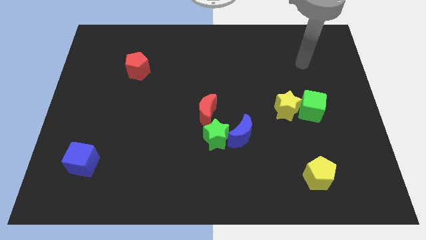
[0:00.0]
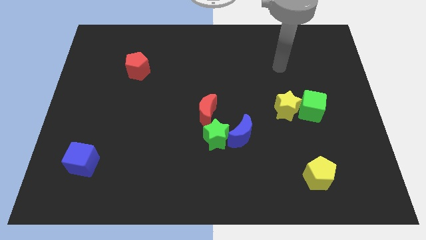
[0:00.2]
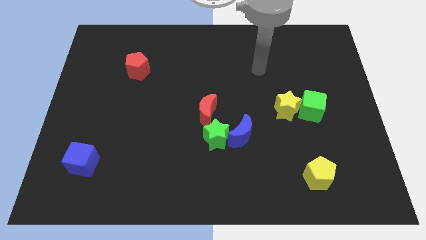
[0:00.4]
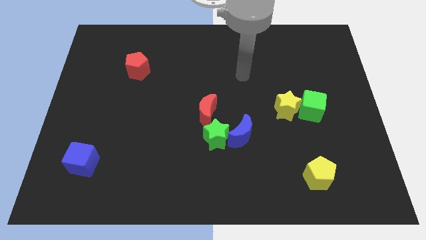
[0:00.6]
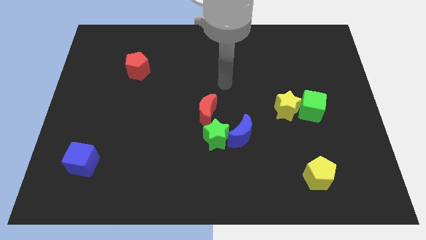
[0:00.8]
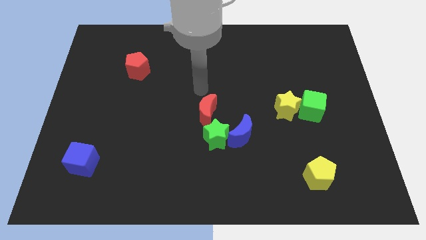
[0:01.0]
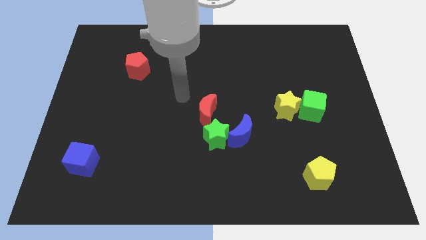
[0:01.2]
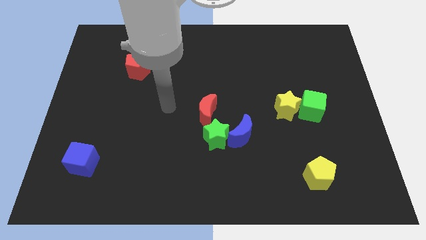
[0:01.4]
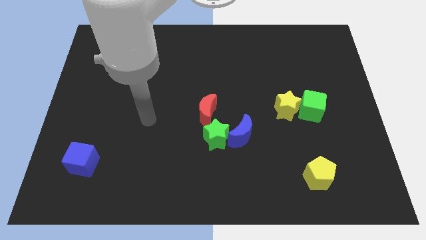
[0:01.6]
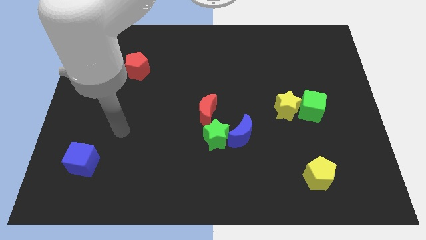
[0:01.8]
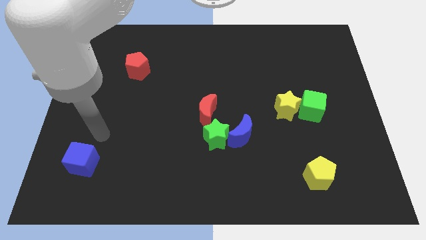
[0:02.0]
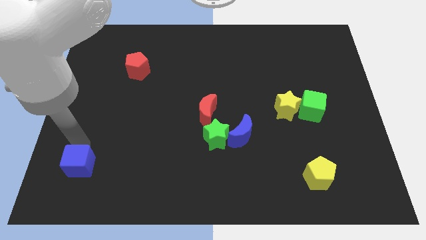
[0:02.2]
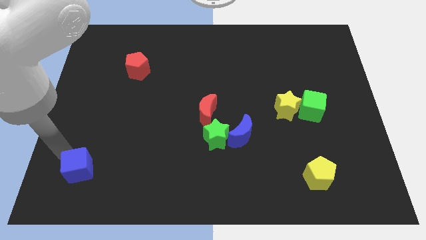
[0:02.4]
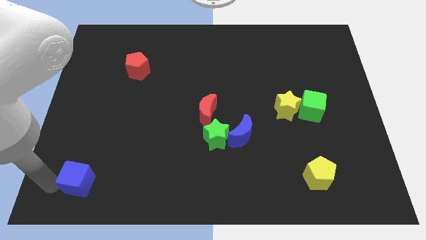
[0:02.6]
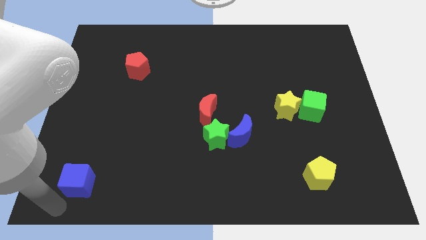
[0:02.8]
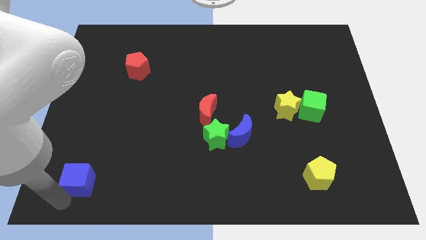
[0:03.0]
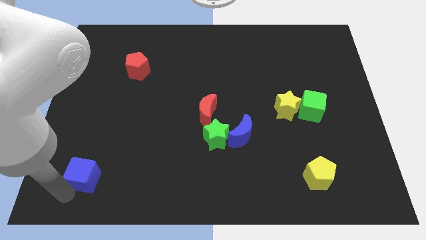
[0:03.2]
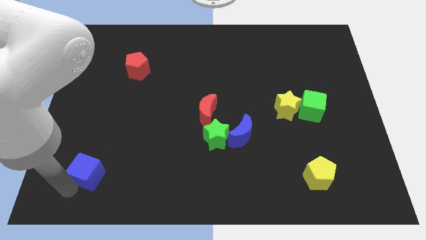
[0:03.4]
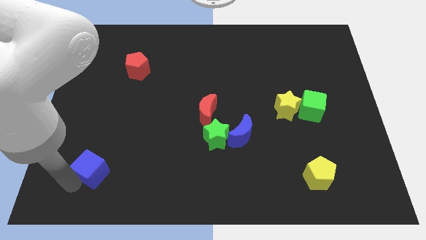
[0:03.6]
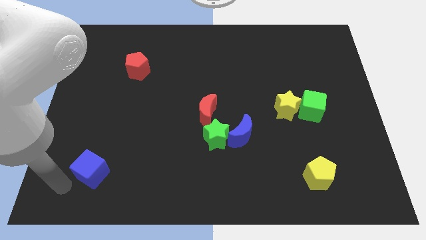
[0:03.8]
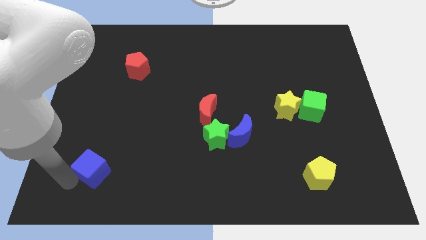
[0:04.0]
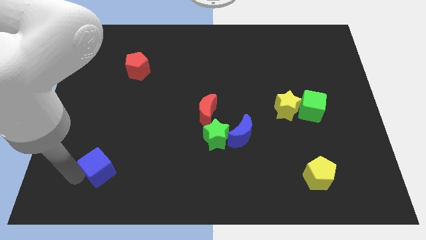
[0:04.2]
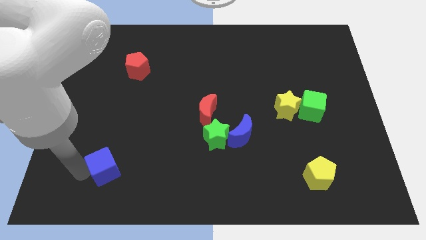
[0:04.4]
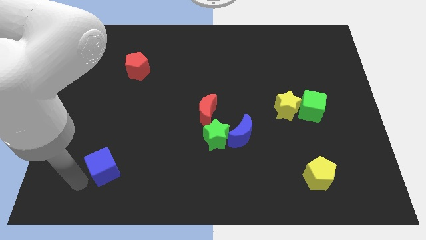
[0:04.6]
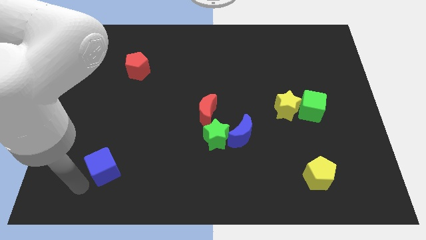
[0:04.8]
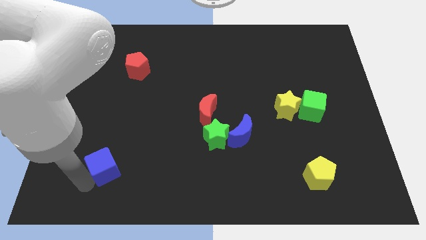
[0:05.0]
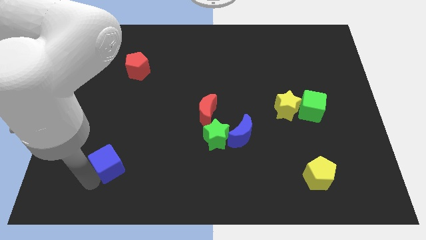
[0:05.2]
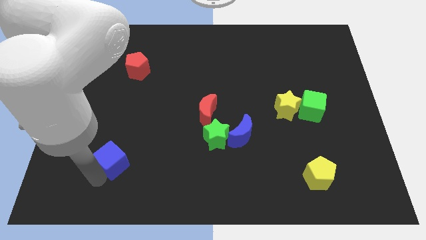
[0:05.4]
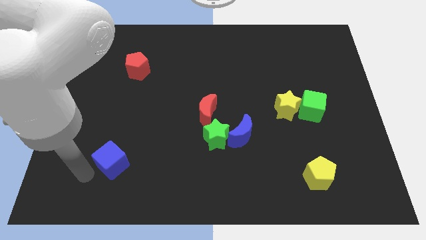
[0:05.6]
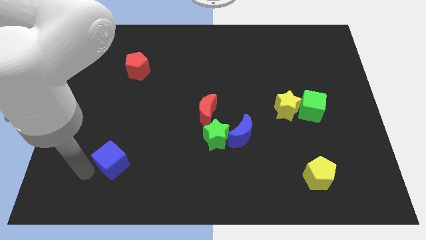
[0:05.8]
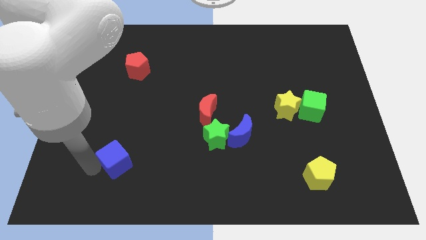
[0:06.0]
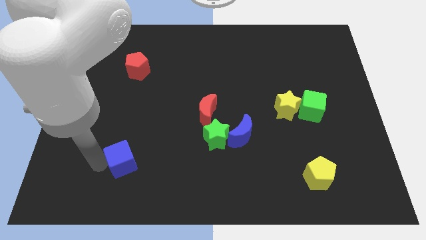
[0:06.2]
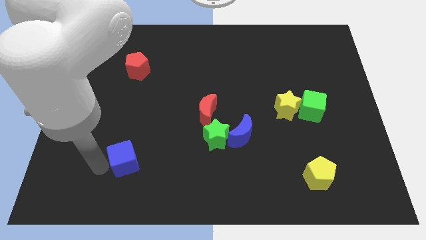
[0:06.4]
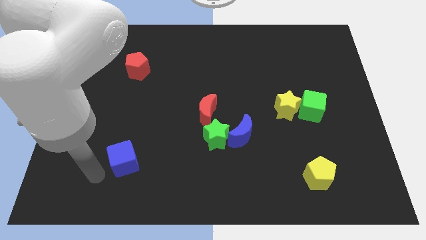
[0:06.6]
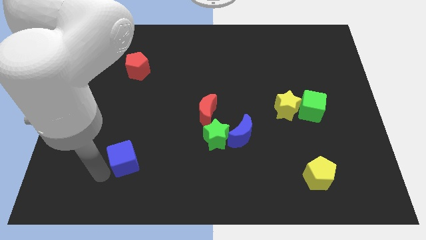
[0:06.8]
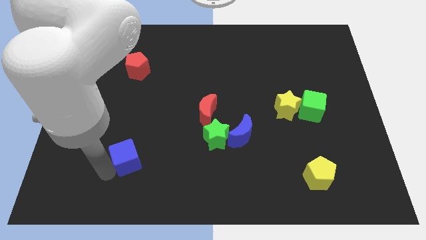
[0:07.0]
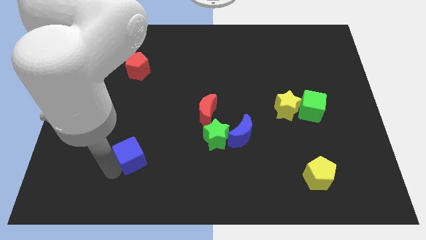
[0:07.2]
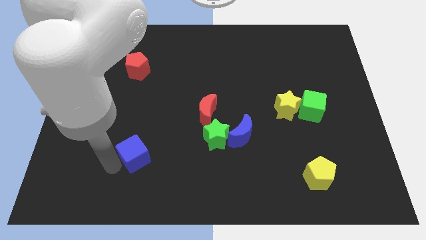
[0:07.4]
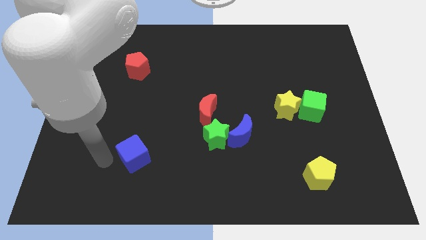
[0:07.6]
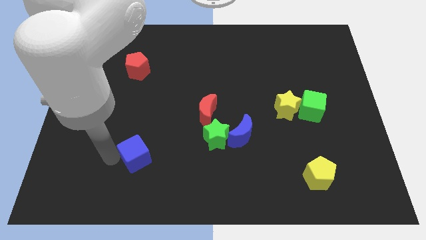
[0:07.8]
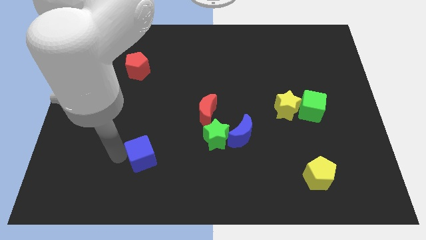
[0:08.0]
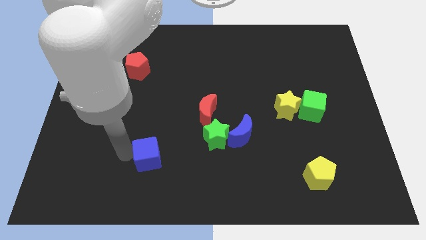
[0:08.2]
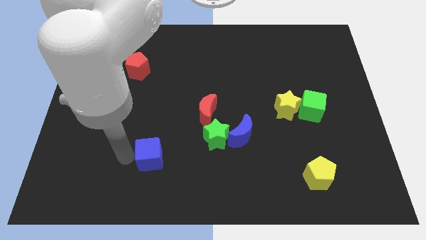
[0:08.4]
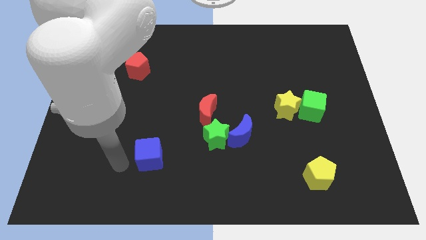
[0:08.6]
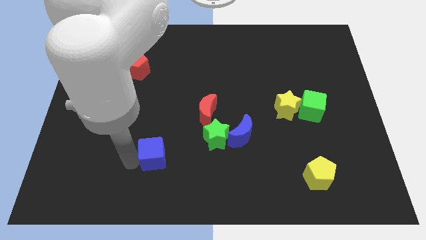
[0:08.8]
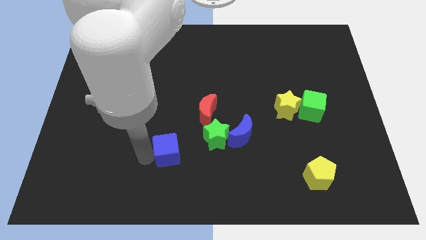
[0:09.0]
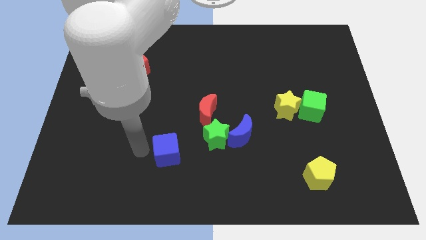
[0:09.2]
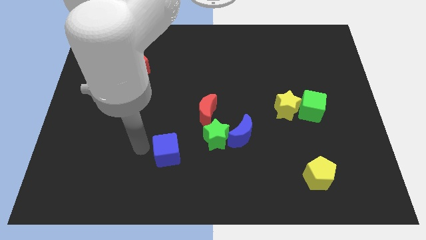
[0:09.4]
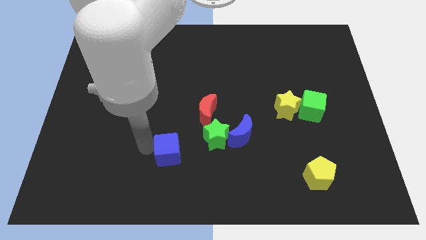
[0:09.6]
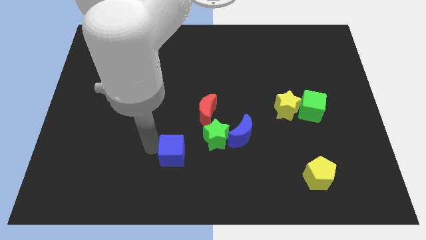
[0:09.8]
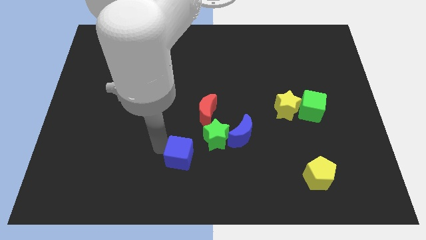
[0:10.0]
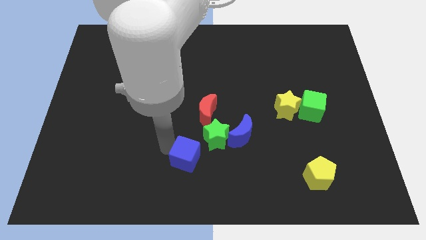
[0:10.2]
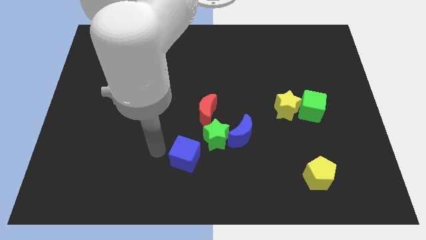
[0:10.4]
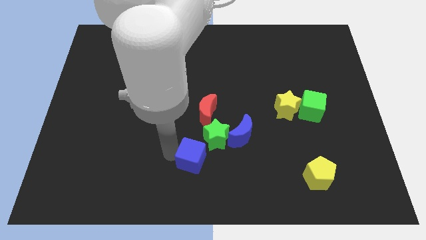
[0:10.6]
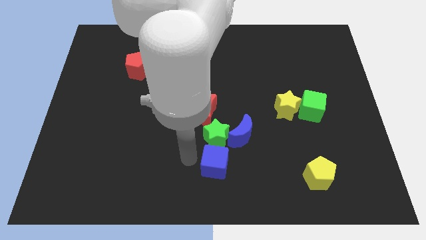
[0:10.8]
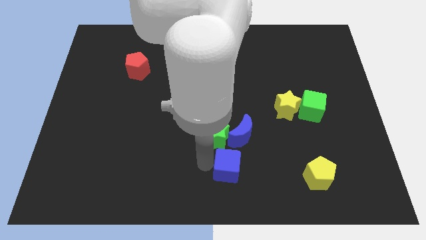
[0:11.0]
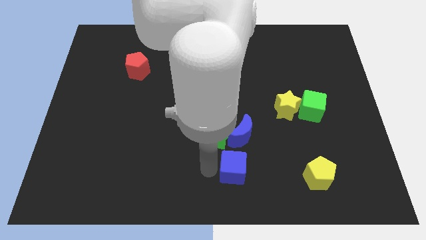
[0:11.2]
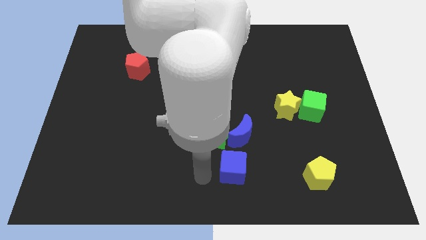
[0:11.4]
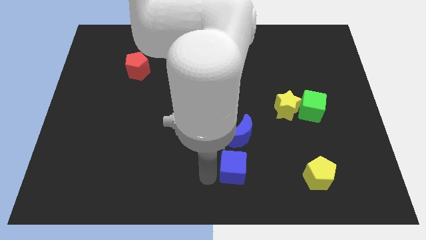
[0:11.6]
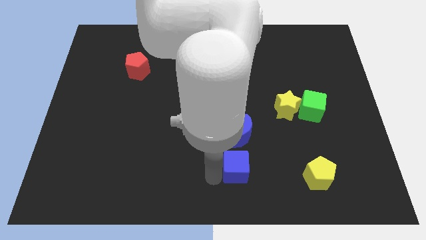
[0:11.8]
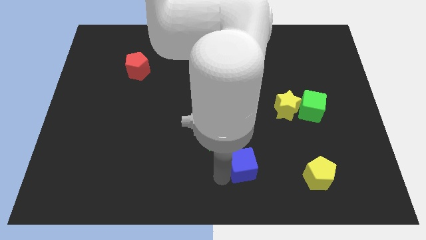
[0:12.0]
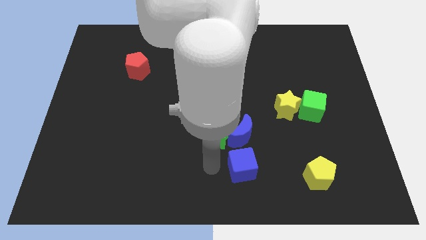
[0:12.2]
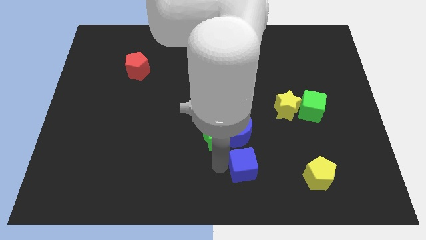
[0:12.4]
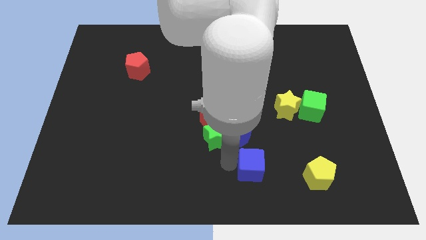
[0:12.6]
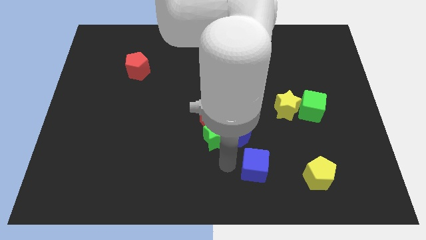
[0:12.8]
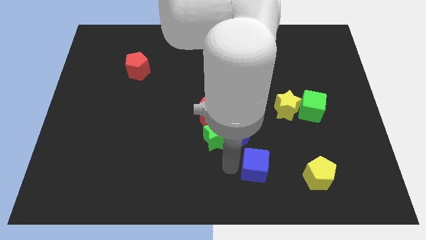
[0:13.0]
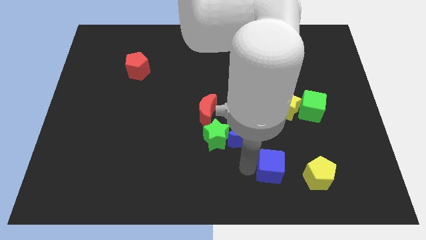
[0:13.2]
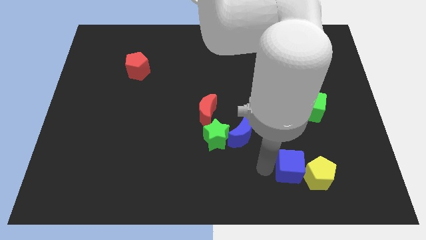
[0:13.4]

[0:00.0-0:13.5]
slide the blue cube next to the yellow pentagon

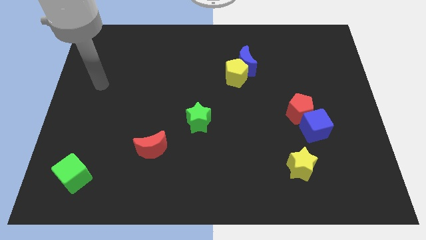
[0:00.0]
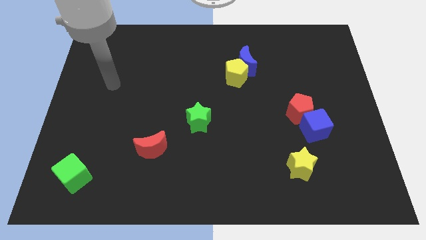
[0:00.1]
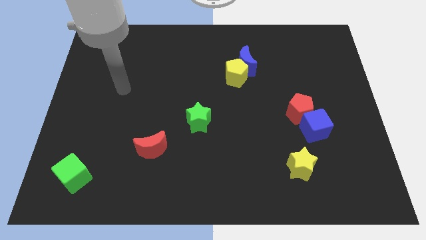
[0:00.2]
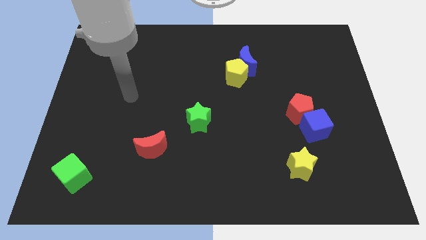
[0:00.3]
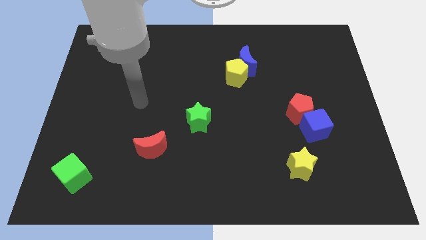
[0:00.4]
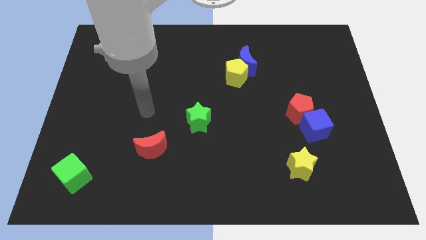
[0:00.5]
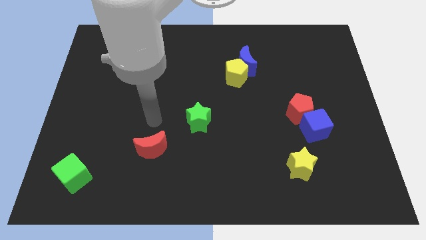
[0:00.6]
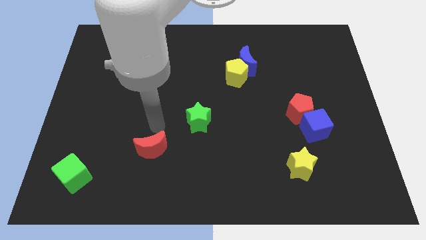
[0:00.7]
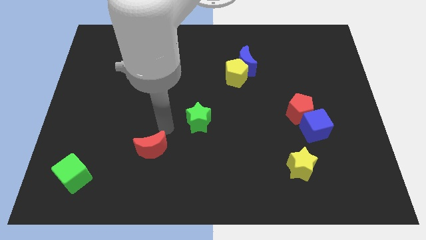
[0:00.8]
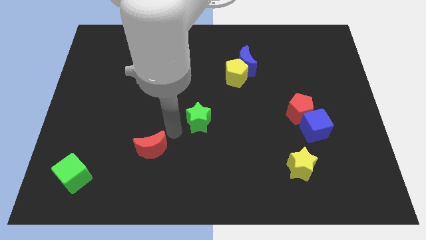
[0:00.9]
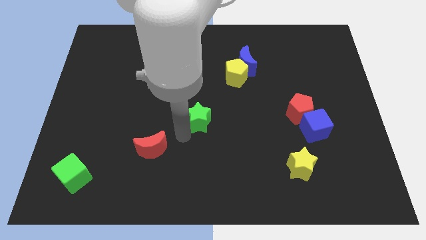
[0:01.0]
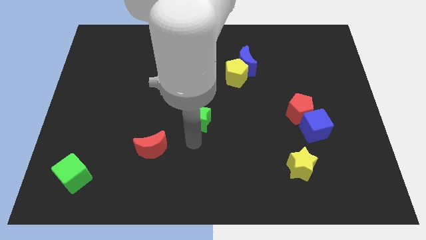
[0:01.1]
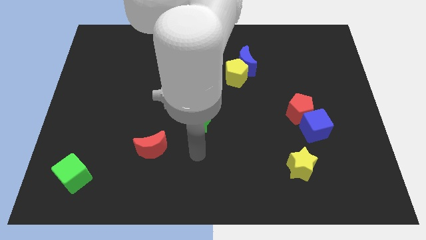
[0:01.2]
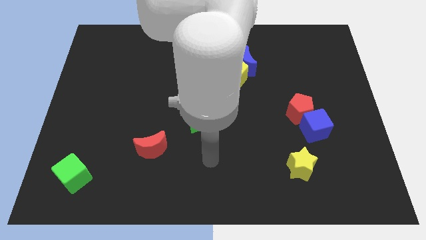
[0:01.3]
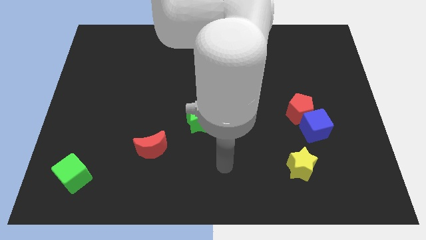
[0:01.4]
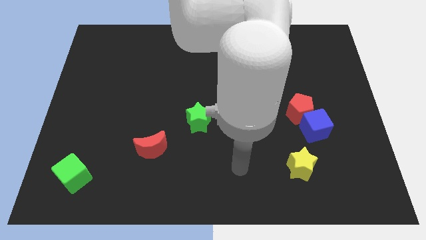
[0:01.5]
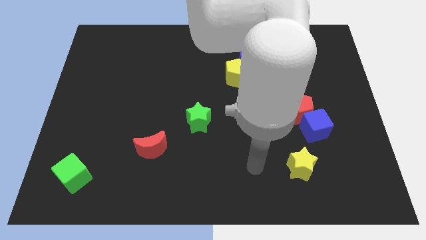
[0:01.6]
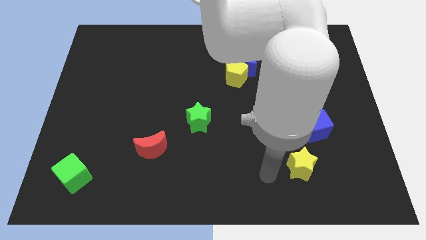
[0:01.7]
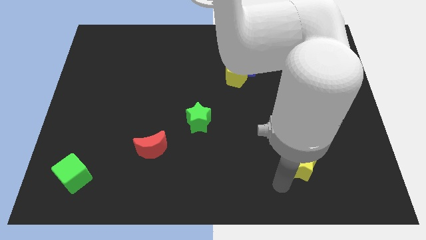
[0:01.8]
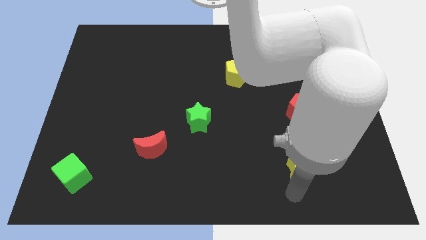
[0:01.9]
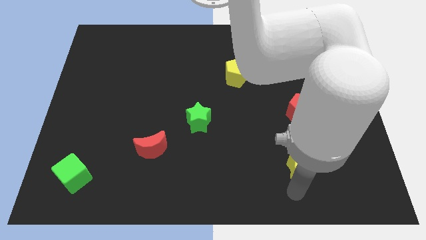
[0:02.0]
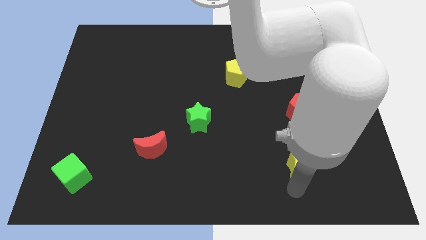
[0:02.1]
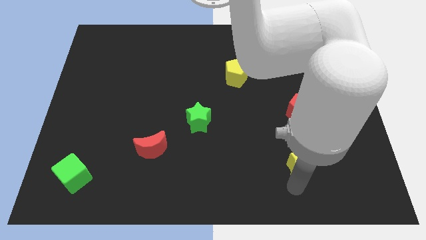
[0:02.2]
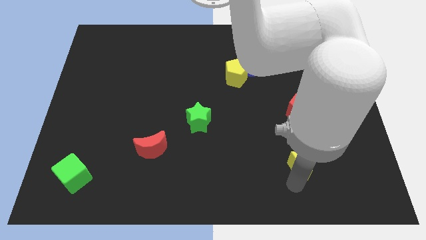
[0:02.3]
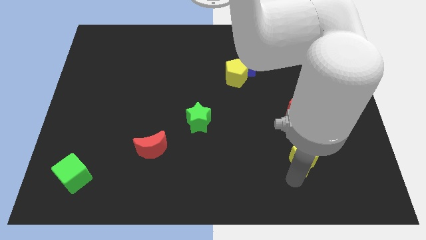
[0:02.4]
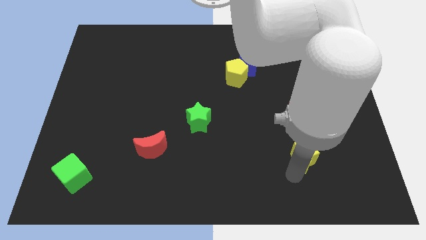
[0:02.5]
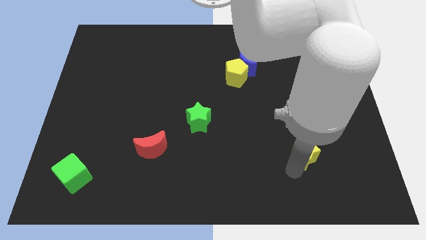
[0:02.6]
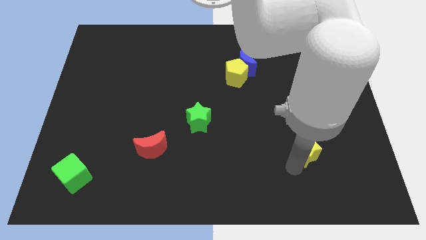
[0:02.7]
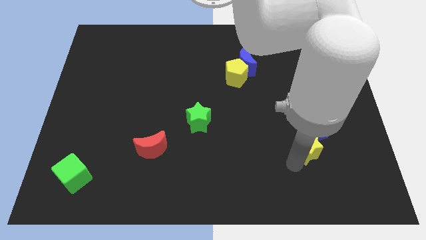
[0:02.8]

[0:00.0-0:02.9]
push the yellow star towards the blue cube
